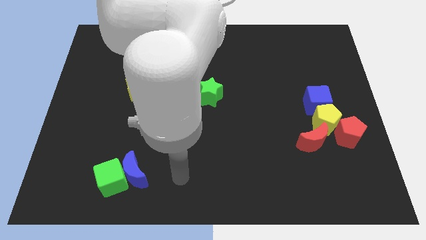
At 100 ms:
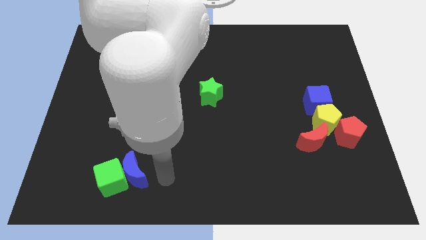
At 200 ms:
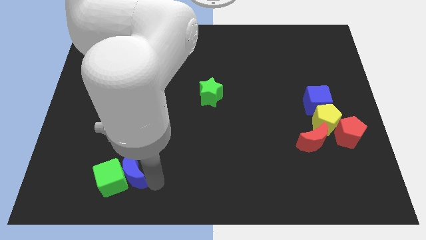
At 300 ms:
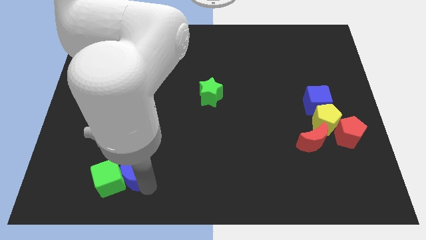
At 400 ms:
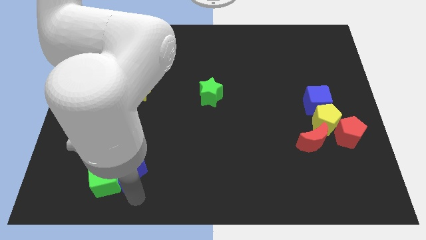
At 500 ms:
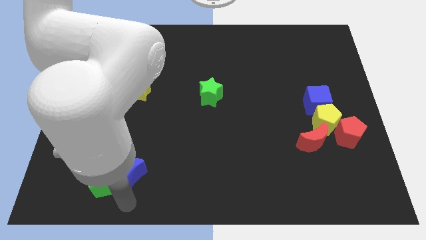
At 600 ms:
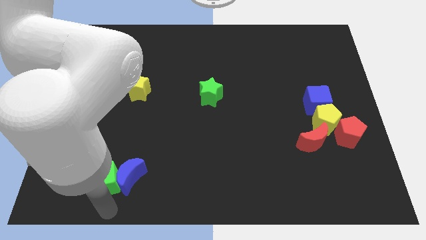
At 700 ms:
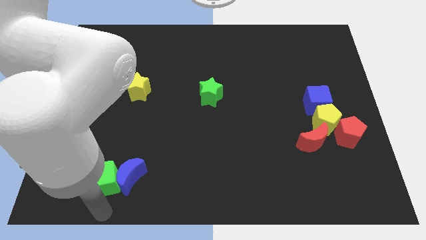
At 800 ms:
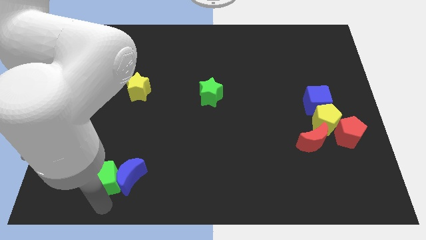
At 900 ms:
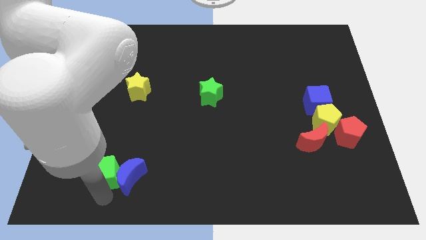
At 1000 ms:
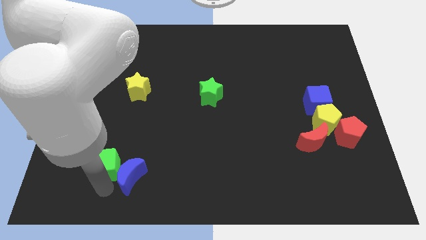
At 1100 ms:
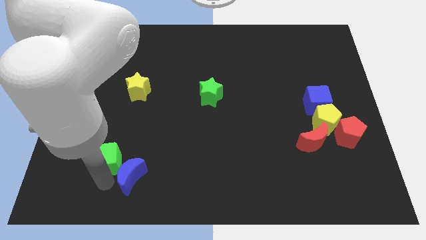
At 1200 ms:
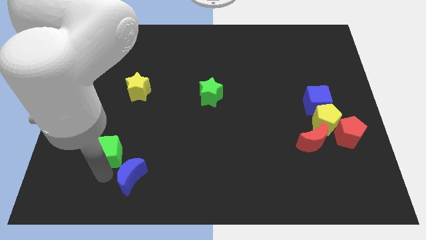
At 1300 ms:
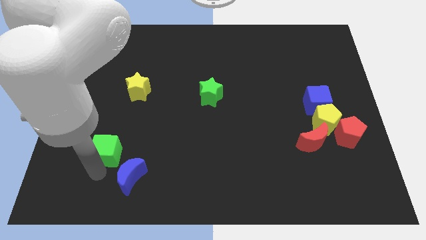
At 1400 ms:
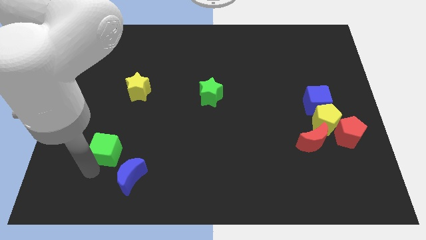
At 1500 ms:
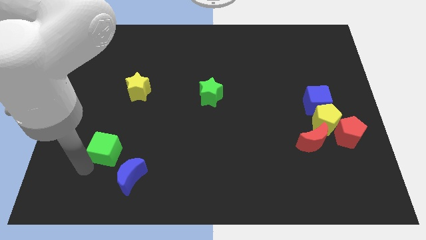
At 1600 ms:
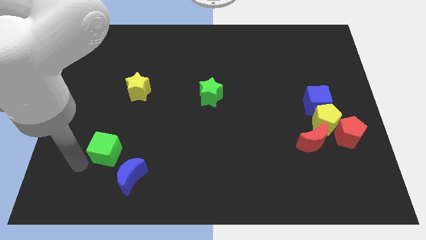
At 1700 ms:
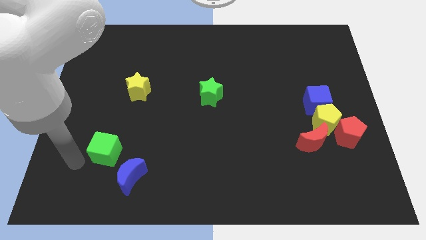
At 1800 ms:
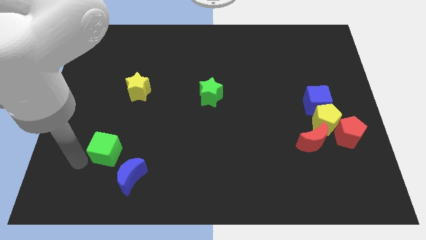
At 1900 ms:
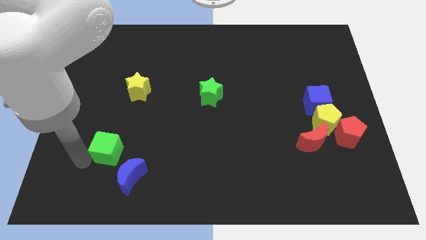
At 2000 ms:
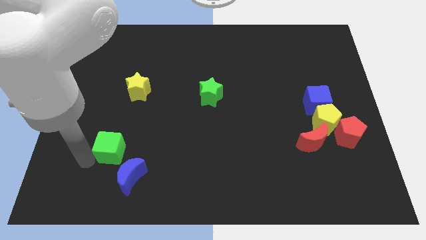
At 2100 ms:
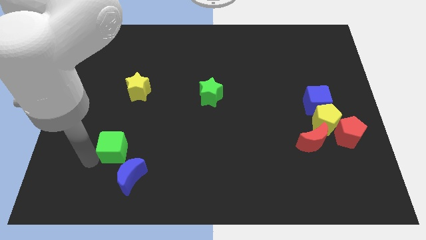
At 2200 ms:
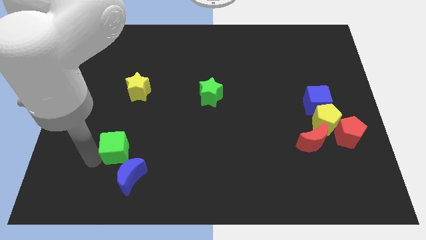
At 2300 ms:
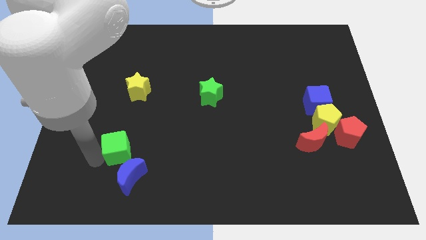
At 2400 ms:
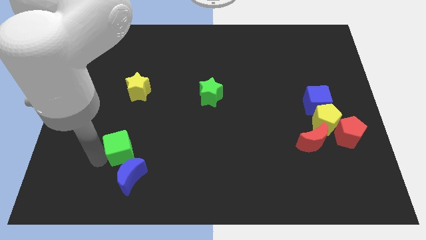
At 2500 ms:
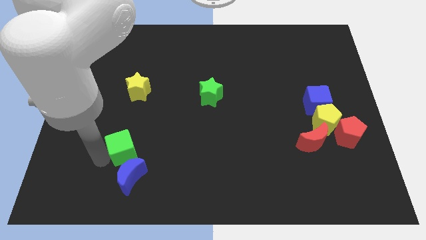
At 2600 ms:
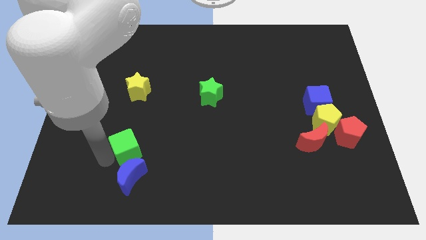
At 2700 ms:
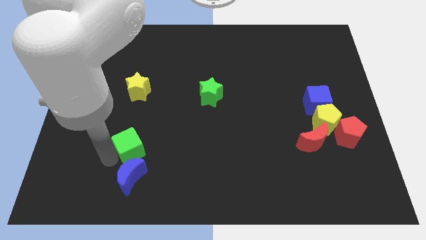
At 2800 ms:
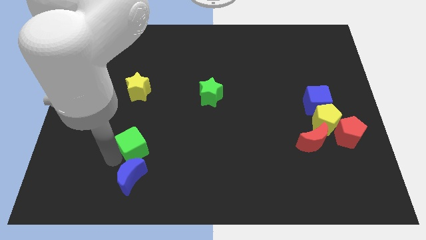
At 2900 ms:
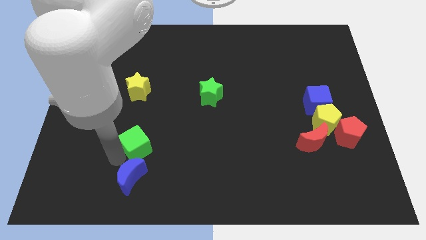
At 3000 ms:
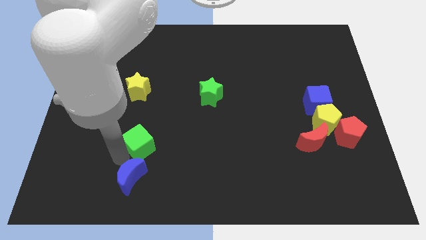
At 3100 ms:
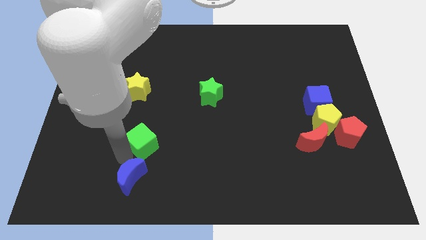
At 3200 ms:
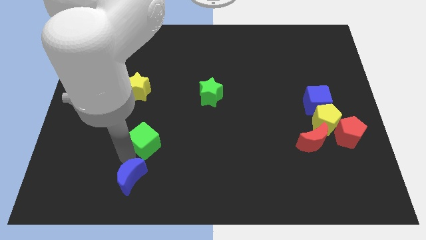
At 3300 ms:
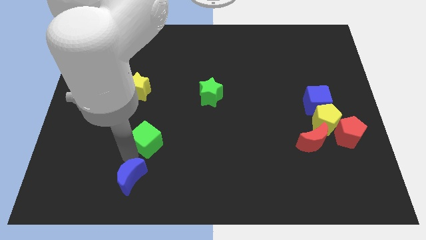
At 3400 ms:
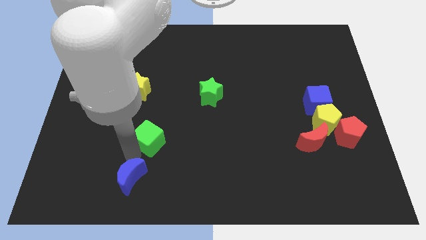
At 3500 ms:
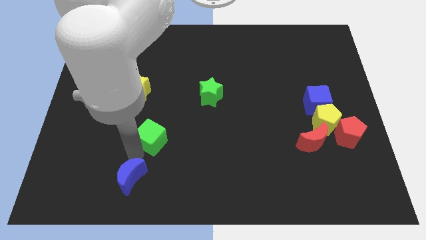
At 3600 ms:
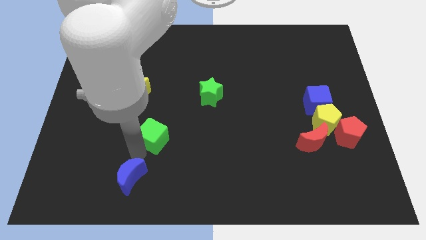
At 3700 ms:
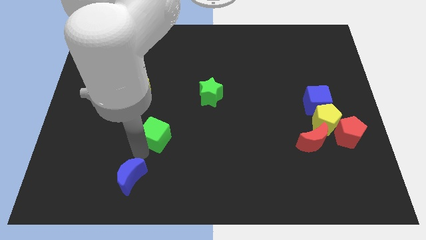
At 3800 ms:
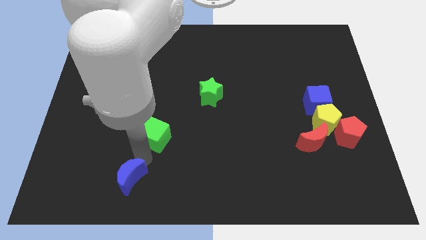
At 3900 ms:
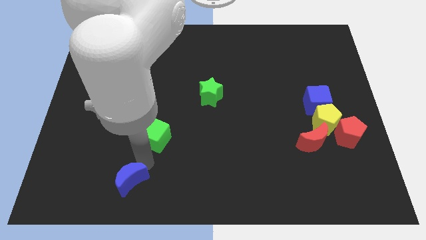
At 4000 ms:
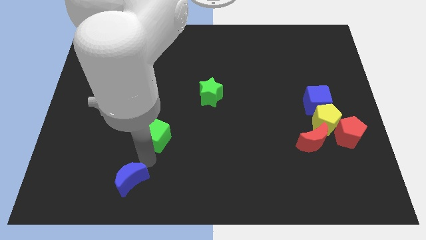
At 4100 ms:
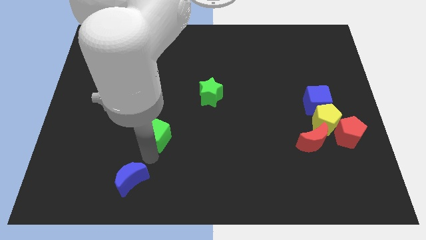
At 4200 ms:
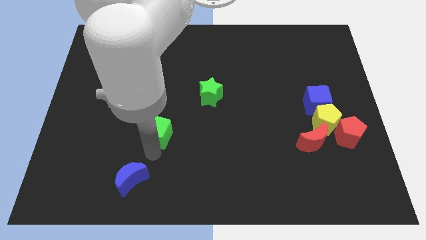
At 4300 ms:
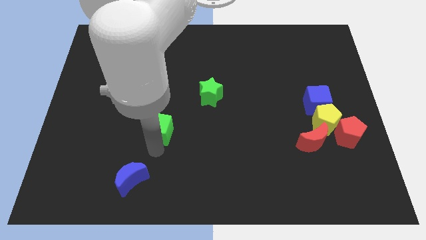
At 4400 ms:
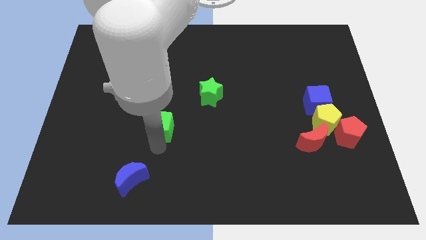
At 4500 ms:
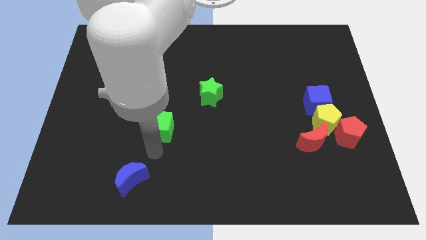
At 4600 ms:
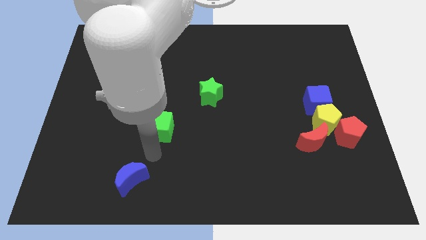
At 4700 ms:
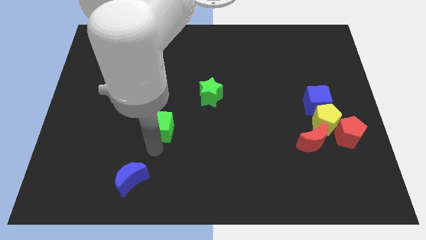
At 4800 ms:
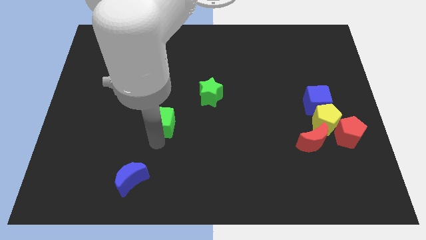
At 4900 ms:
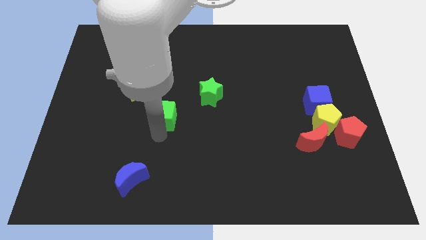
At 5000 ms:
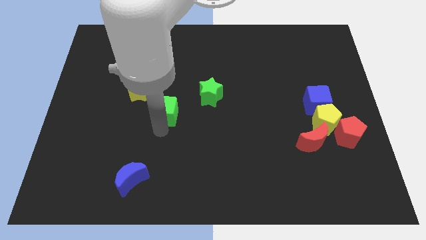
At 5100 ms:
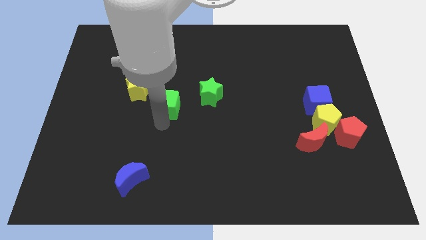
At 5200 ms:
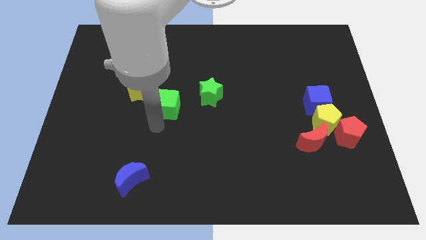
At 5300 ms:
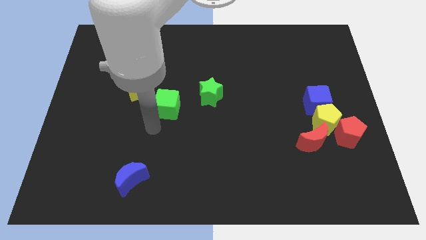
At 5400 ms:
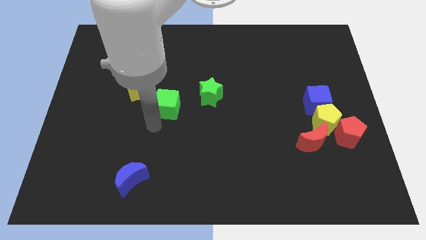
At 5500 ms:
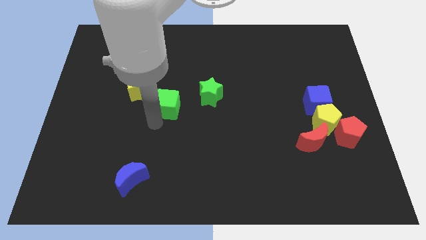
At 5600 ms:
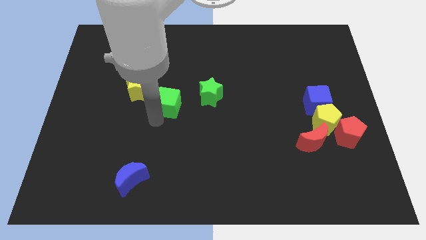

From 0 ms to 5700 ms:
push the green cube just right of the yellow star

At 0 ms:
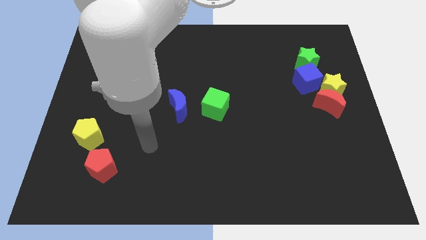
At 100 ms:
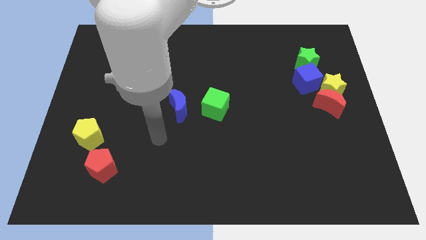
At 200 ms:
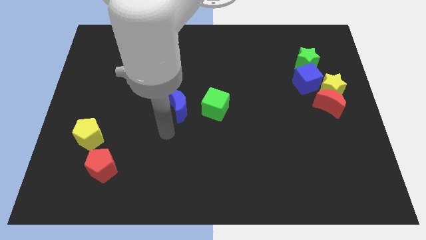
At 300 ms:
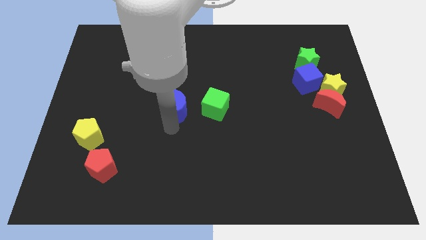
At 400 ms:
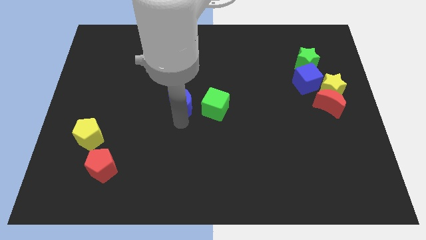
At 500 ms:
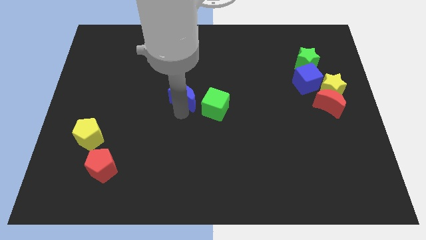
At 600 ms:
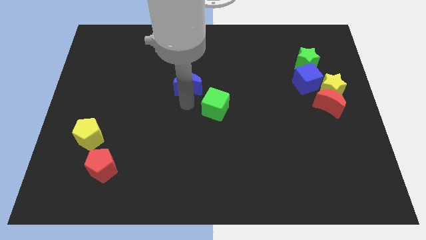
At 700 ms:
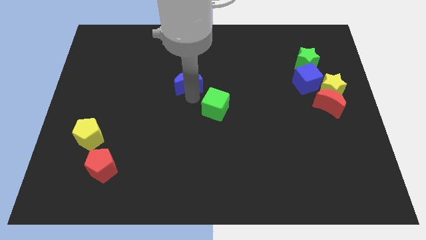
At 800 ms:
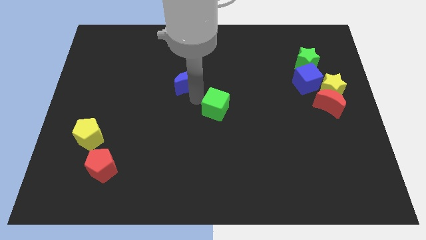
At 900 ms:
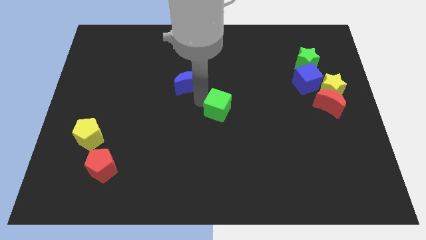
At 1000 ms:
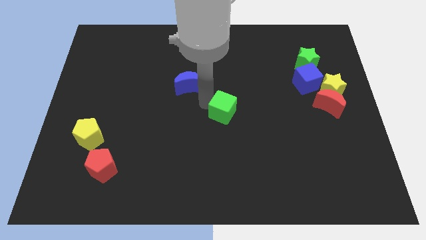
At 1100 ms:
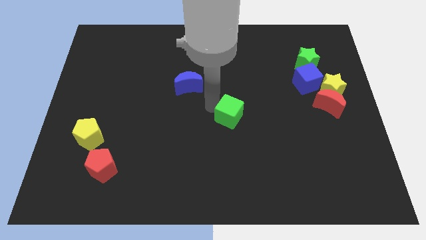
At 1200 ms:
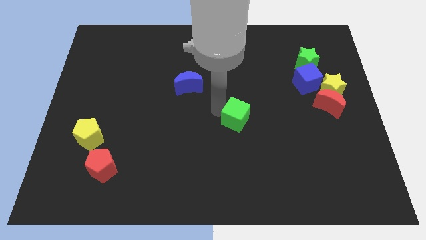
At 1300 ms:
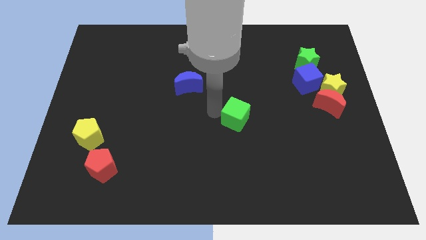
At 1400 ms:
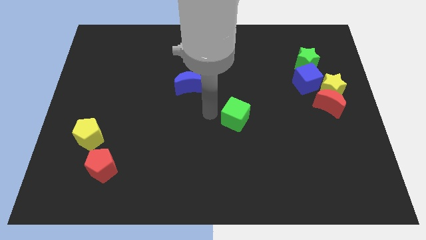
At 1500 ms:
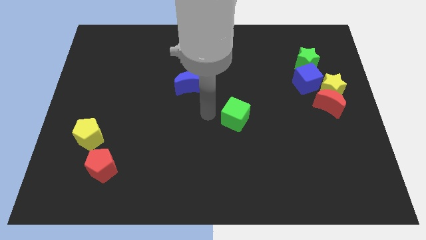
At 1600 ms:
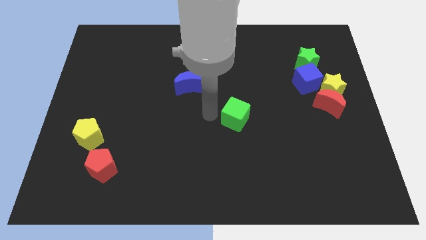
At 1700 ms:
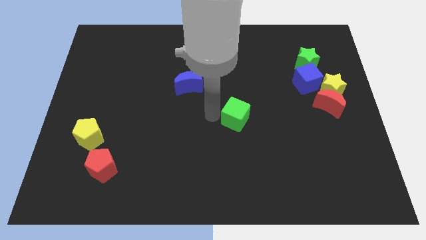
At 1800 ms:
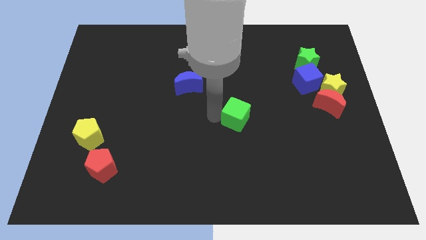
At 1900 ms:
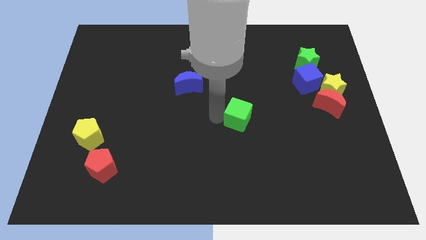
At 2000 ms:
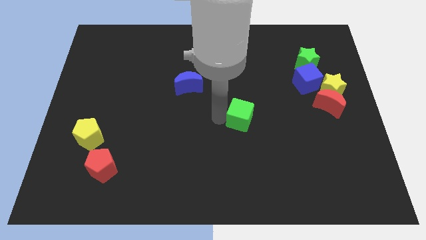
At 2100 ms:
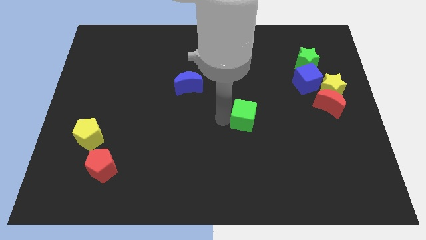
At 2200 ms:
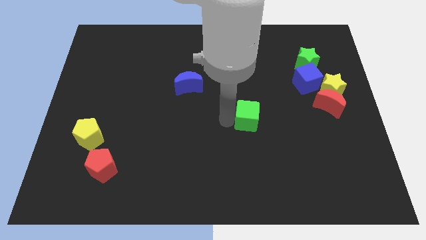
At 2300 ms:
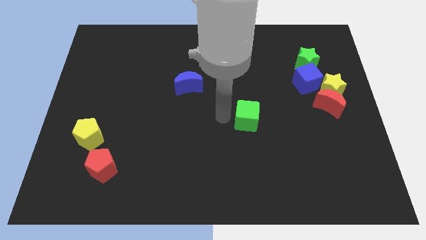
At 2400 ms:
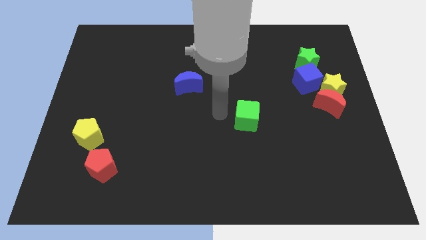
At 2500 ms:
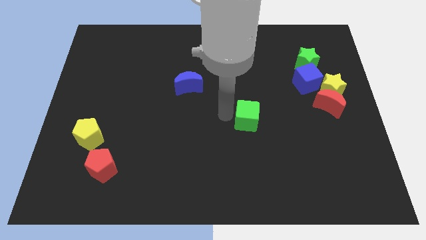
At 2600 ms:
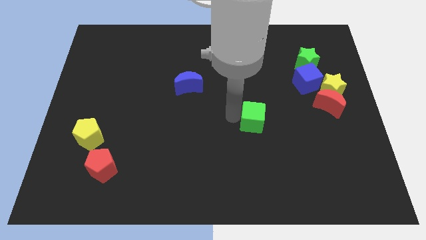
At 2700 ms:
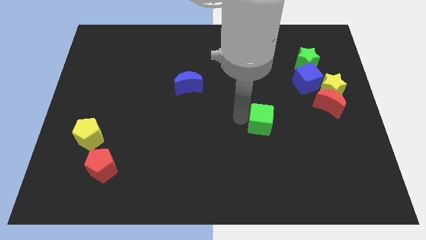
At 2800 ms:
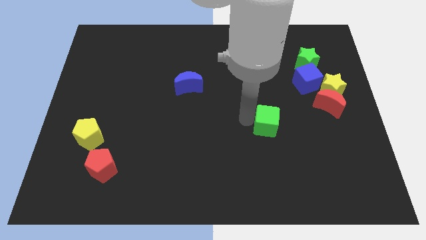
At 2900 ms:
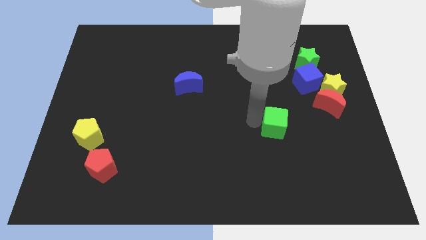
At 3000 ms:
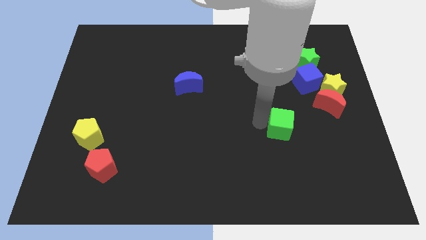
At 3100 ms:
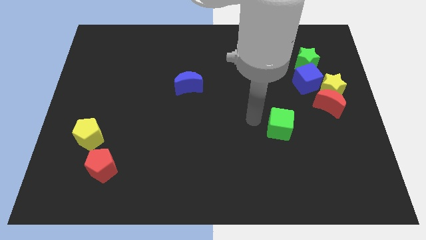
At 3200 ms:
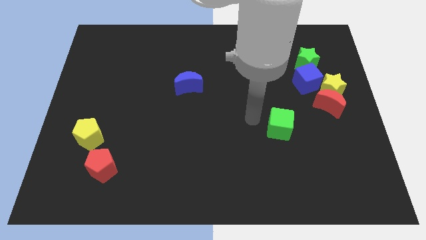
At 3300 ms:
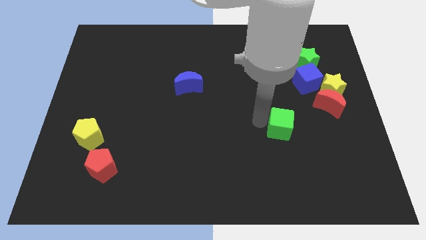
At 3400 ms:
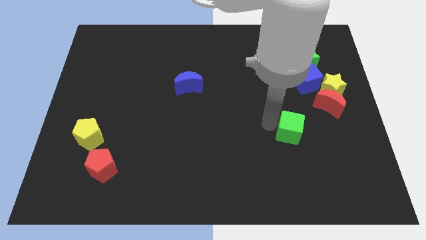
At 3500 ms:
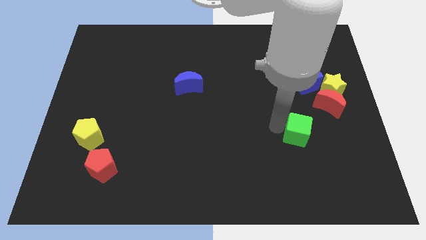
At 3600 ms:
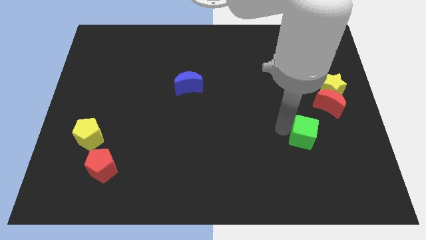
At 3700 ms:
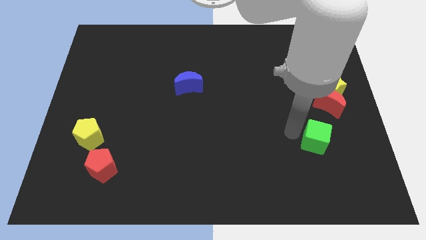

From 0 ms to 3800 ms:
slide the green cube to the bottom side of the red moon
